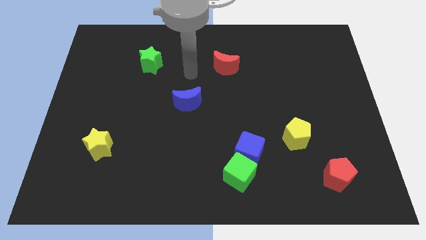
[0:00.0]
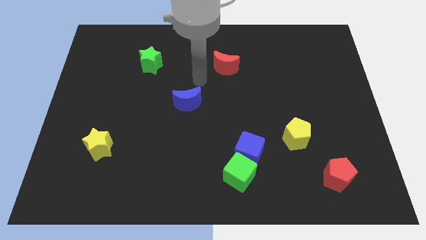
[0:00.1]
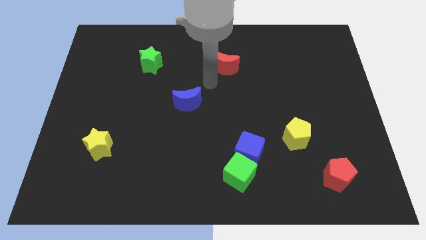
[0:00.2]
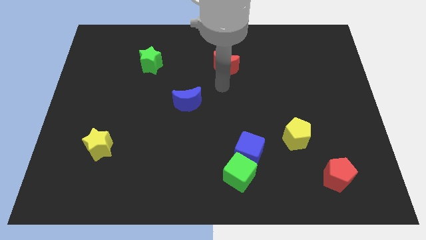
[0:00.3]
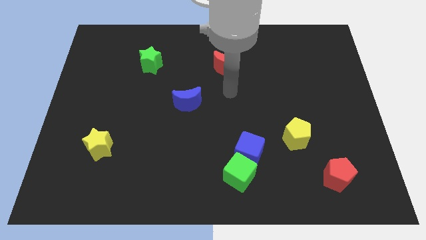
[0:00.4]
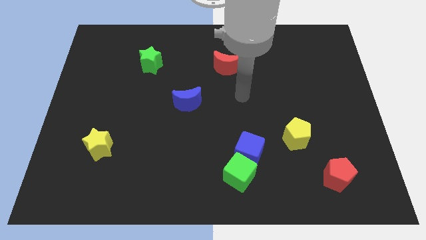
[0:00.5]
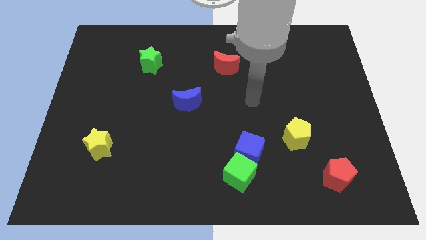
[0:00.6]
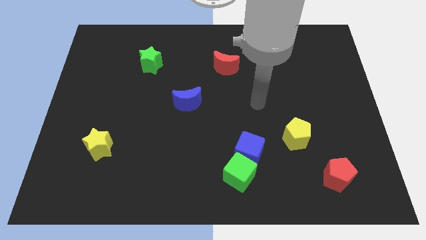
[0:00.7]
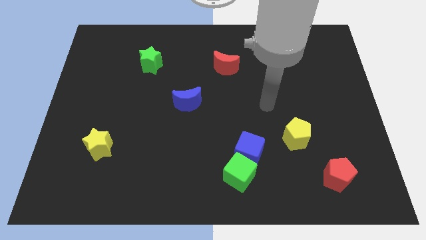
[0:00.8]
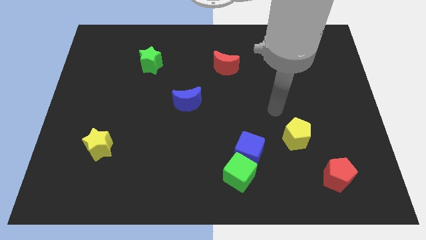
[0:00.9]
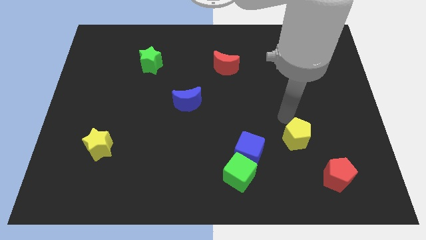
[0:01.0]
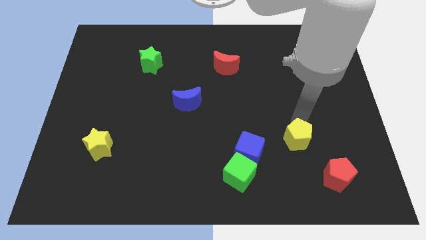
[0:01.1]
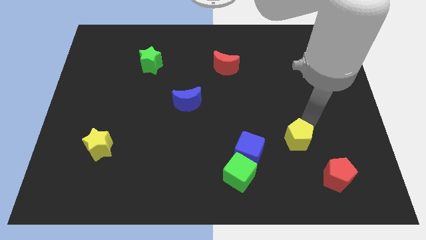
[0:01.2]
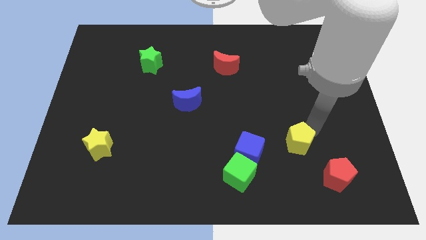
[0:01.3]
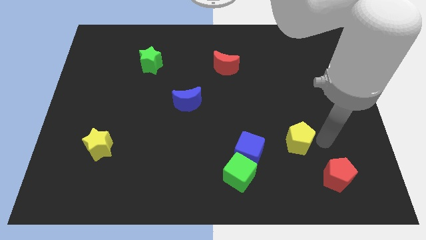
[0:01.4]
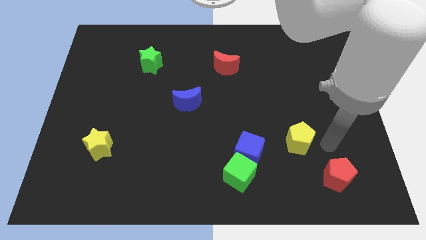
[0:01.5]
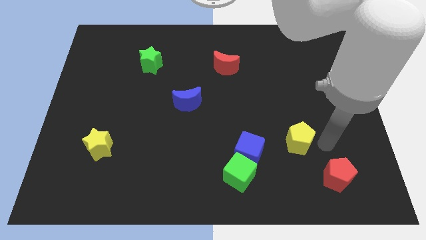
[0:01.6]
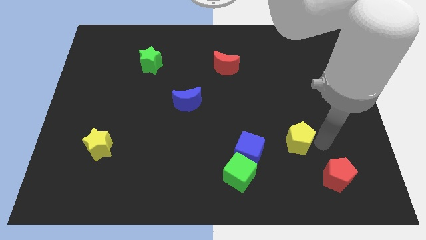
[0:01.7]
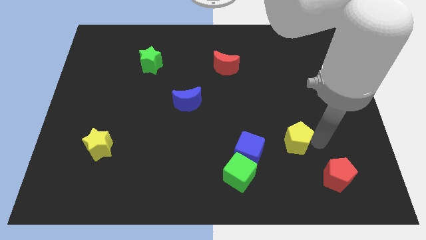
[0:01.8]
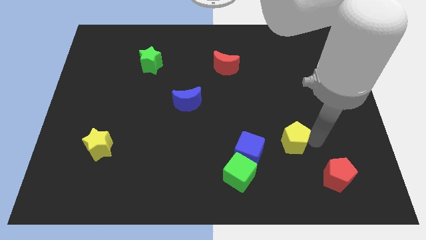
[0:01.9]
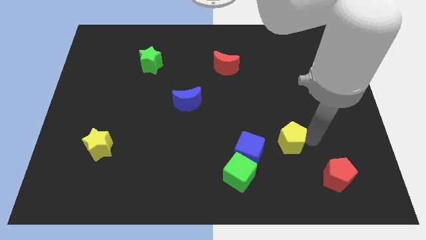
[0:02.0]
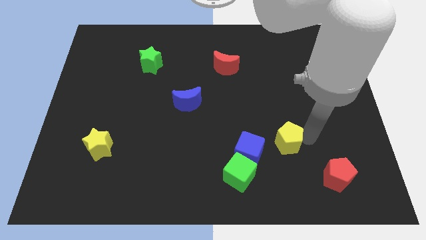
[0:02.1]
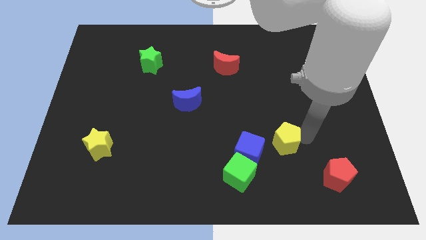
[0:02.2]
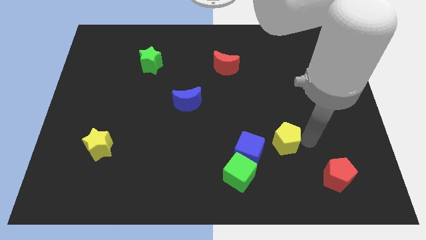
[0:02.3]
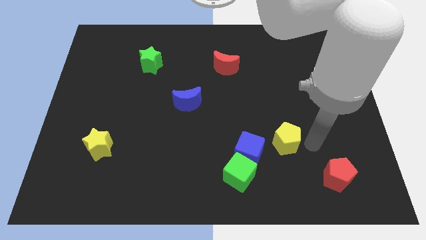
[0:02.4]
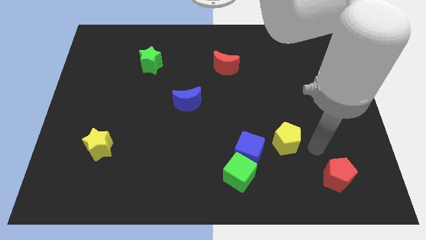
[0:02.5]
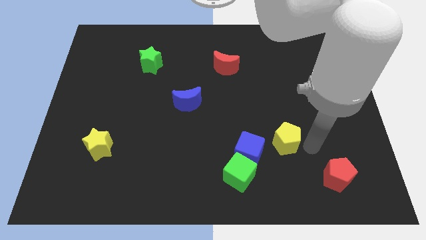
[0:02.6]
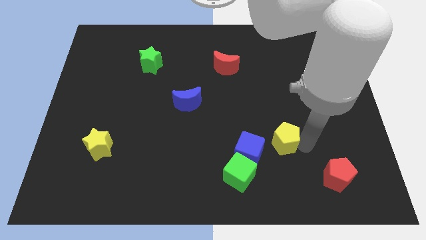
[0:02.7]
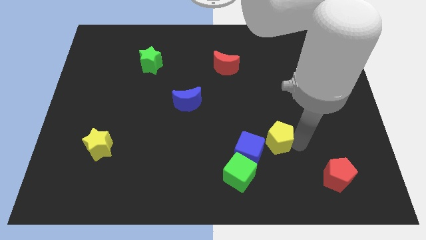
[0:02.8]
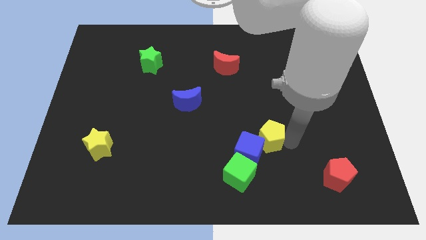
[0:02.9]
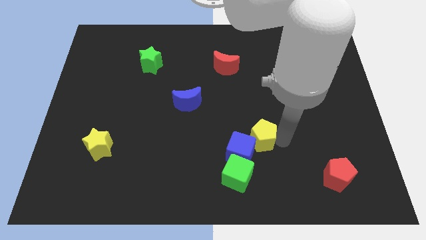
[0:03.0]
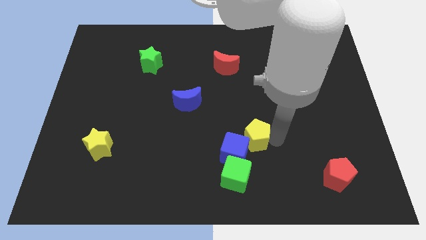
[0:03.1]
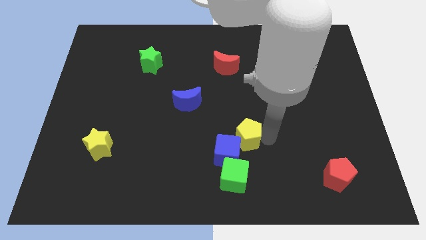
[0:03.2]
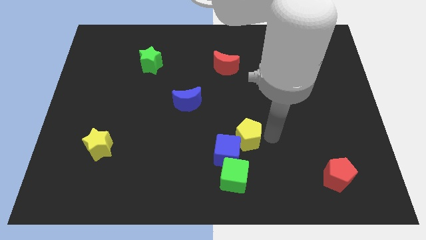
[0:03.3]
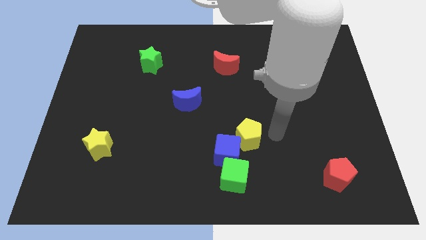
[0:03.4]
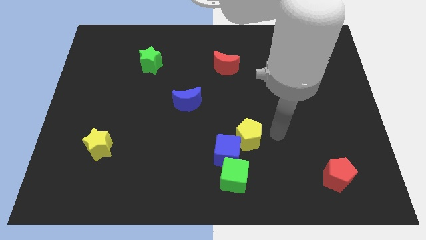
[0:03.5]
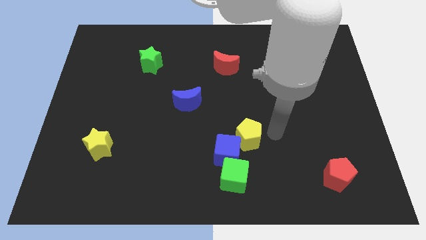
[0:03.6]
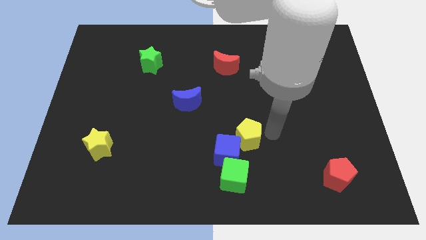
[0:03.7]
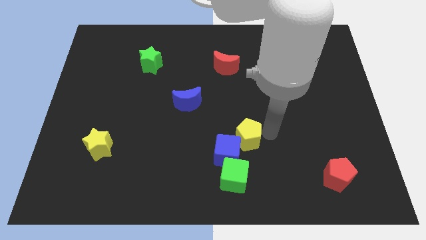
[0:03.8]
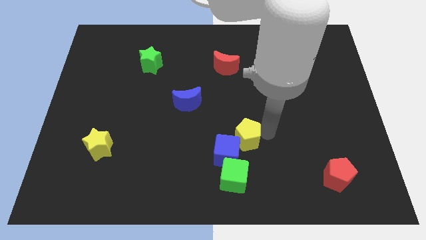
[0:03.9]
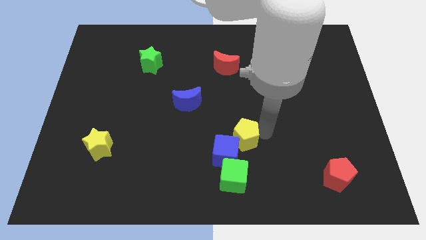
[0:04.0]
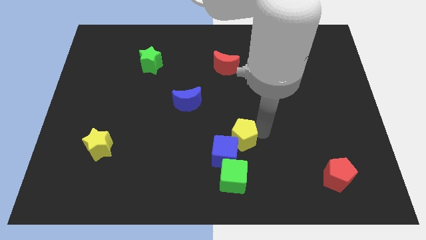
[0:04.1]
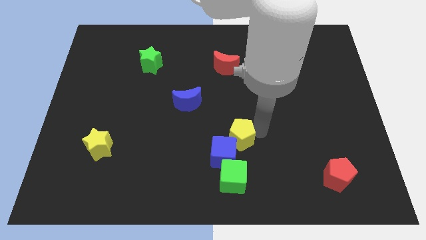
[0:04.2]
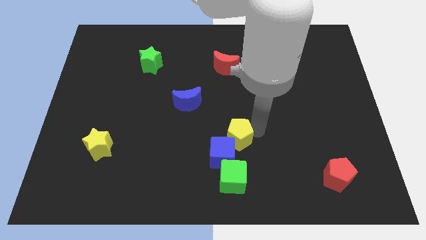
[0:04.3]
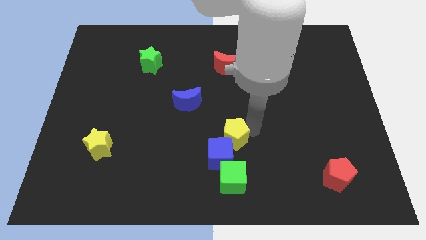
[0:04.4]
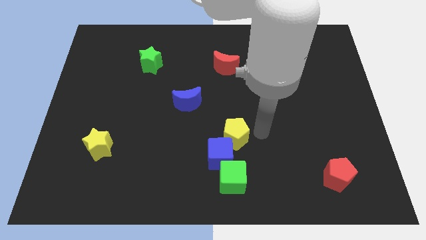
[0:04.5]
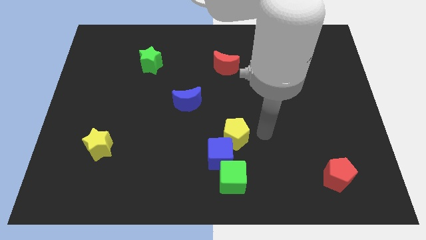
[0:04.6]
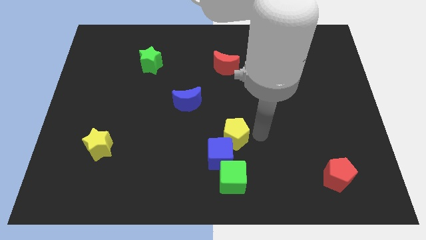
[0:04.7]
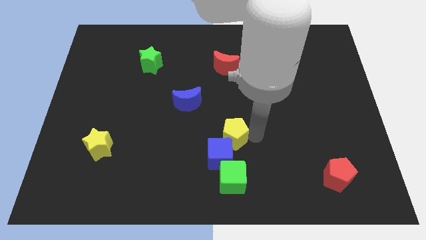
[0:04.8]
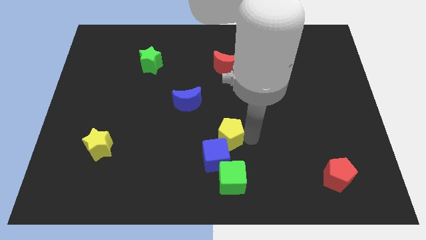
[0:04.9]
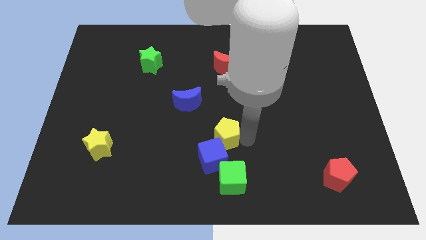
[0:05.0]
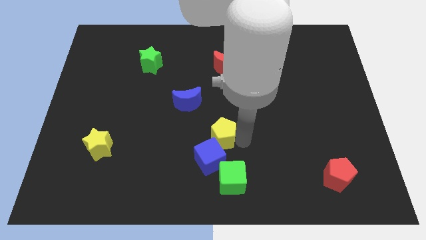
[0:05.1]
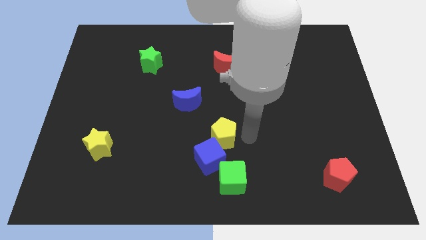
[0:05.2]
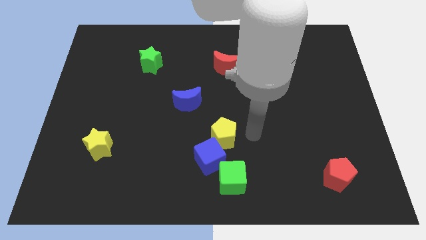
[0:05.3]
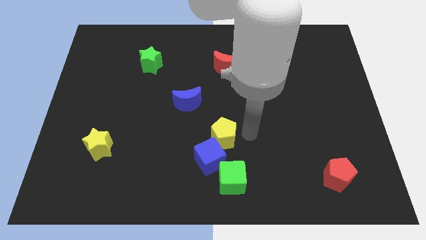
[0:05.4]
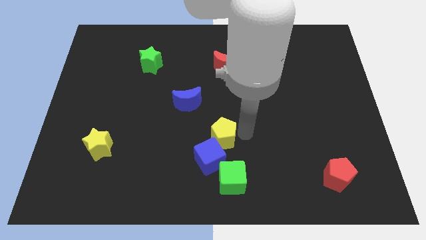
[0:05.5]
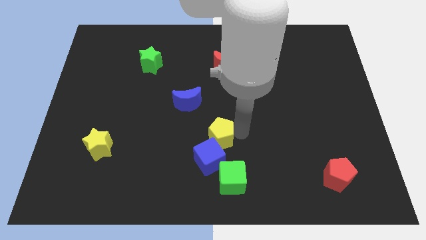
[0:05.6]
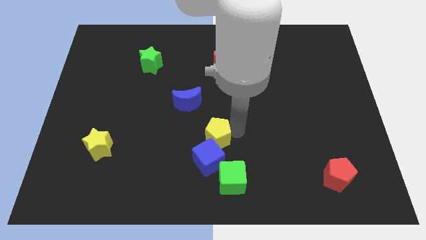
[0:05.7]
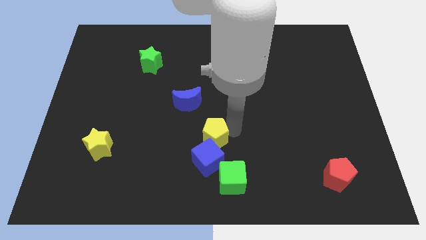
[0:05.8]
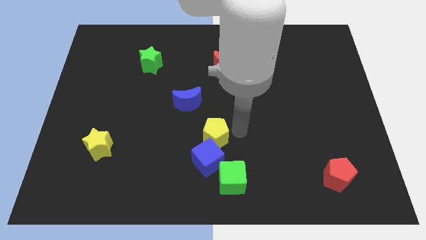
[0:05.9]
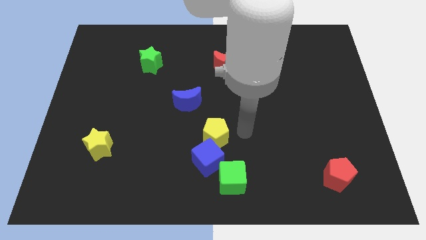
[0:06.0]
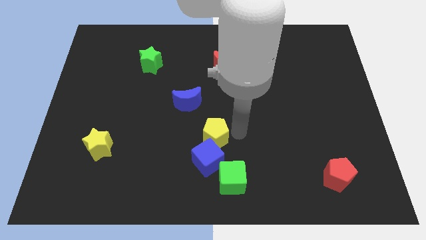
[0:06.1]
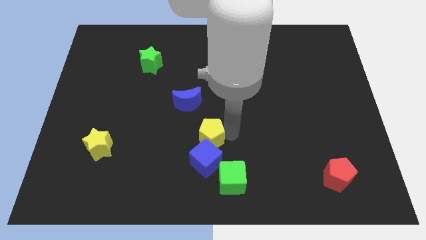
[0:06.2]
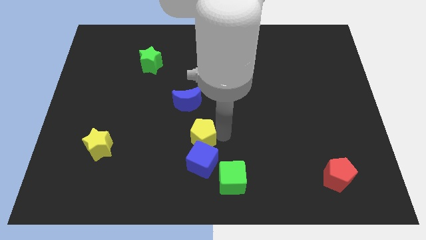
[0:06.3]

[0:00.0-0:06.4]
slide the yellow pentagon to the bottom of the blue moon
